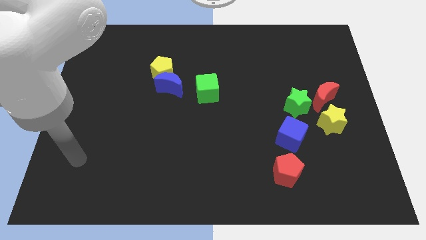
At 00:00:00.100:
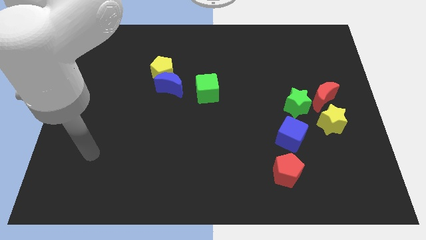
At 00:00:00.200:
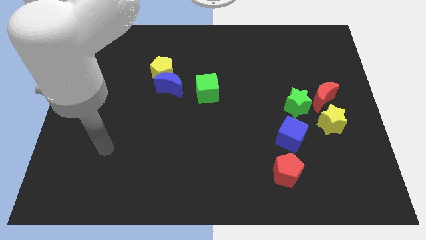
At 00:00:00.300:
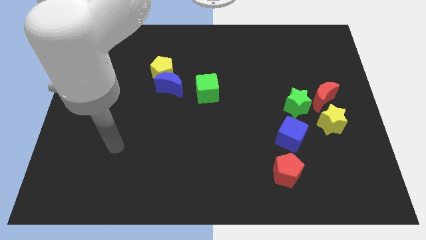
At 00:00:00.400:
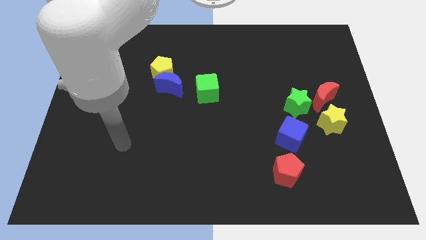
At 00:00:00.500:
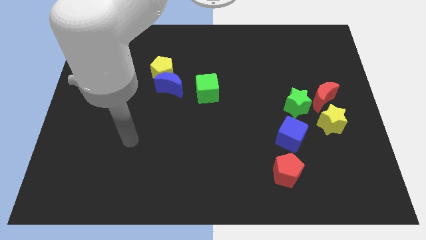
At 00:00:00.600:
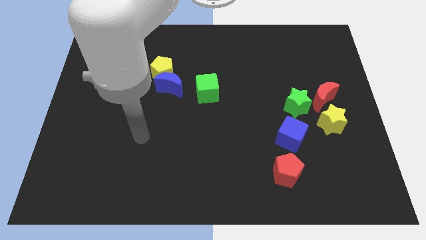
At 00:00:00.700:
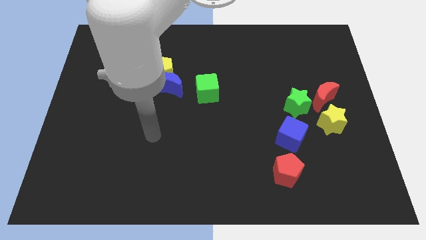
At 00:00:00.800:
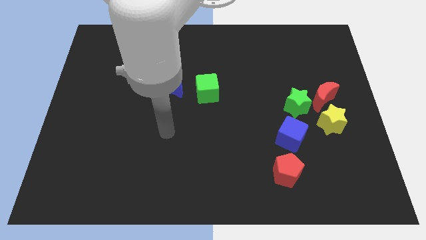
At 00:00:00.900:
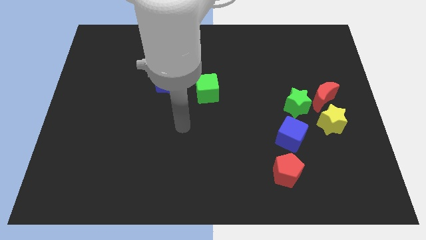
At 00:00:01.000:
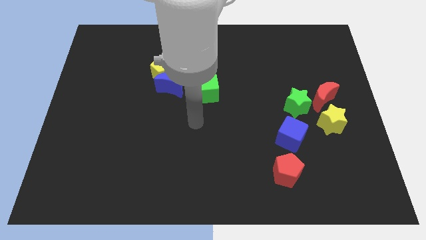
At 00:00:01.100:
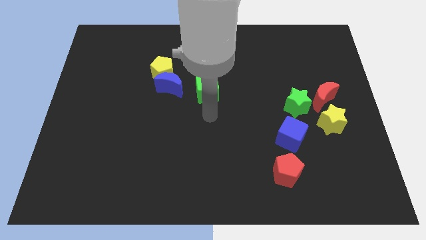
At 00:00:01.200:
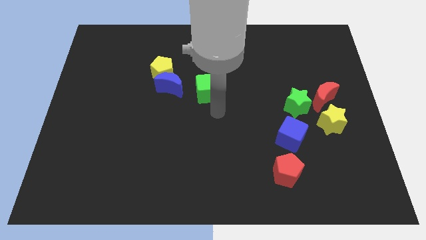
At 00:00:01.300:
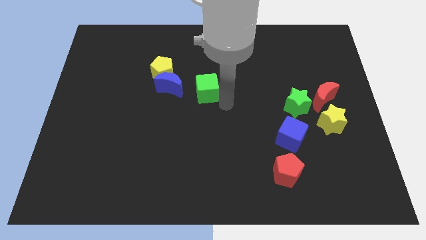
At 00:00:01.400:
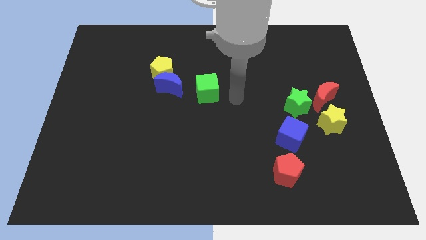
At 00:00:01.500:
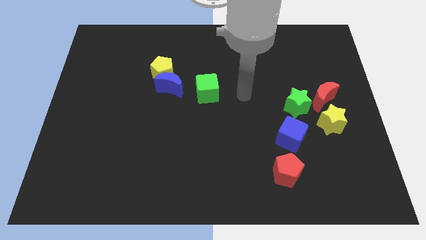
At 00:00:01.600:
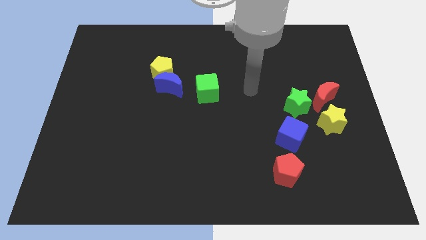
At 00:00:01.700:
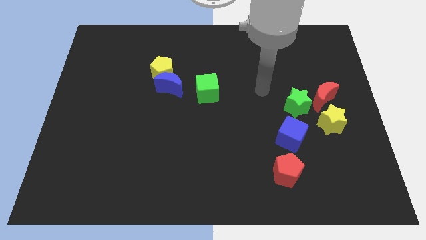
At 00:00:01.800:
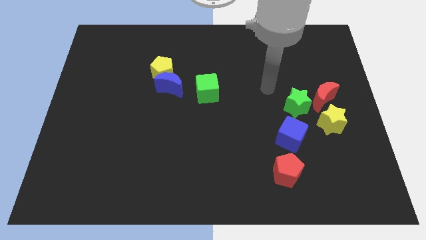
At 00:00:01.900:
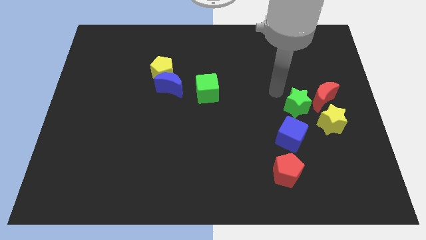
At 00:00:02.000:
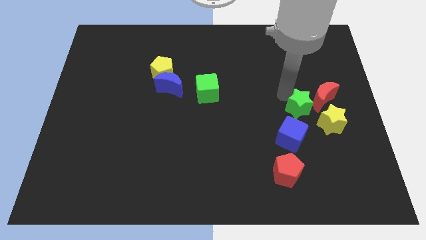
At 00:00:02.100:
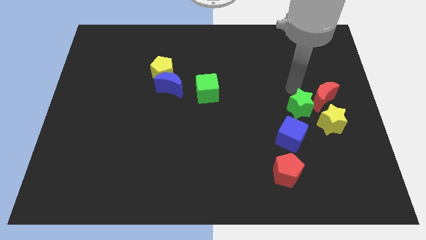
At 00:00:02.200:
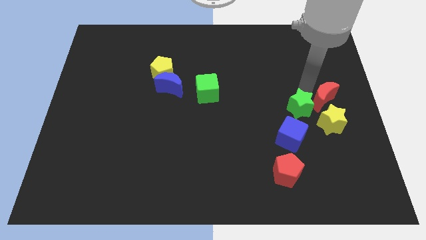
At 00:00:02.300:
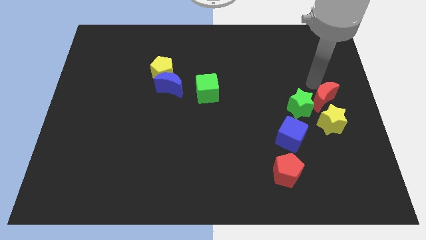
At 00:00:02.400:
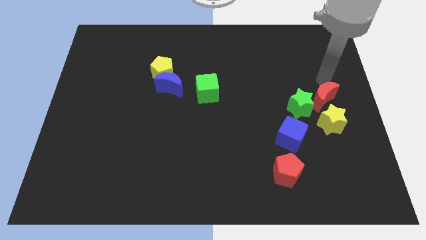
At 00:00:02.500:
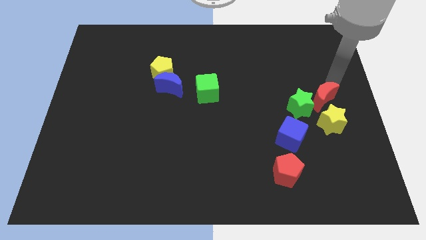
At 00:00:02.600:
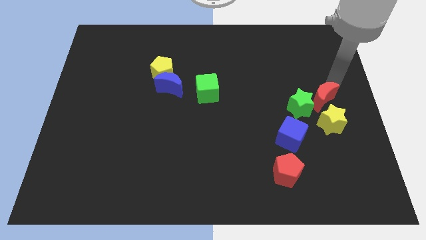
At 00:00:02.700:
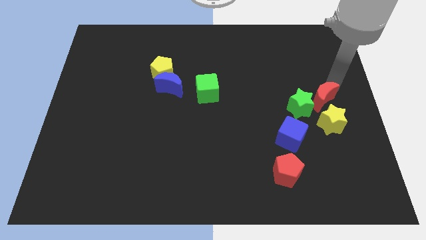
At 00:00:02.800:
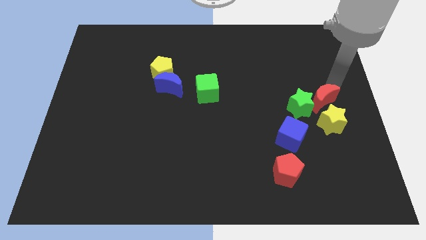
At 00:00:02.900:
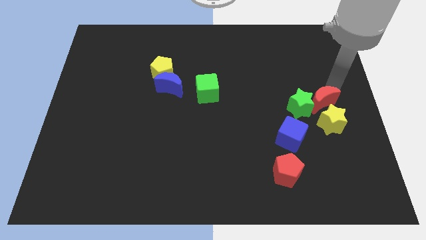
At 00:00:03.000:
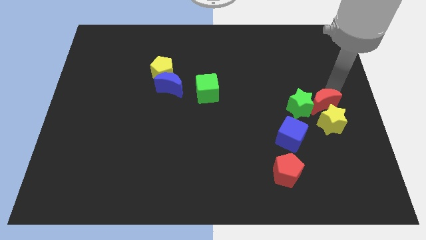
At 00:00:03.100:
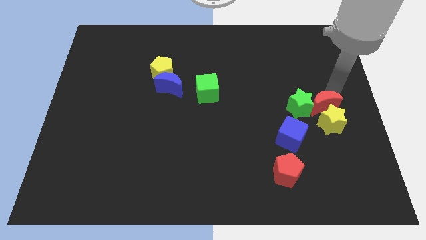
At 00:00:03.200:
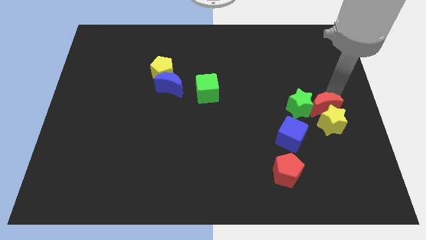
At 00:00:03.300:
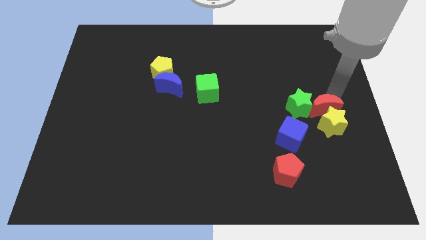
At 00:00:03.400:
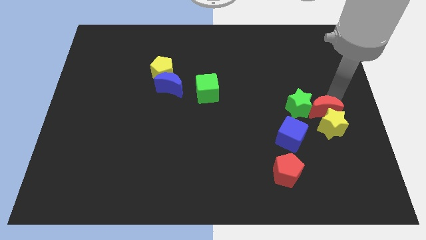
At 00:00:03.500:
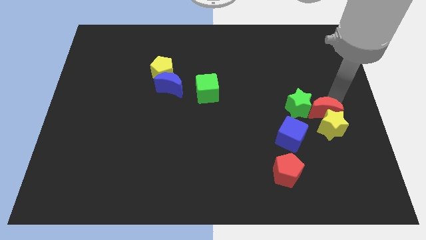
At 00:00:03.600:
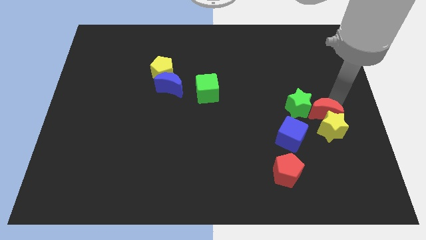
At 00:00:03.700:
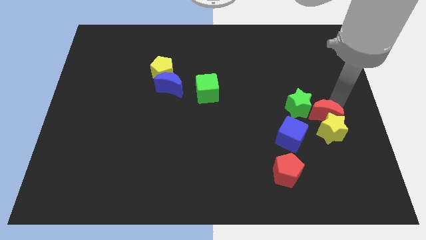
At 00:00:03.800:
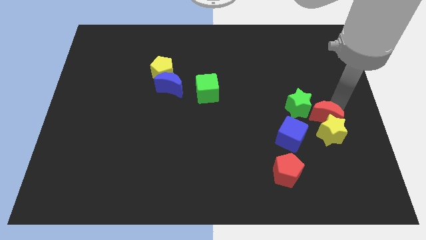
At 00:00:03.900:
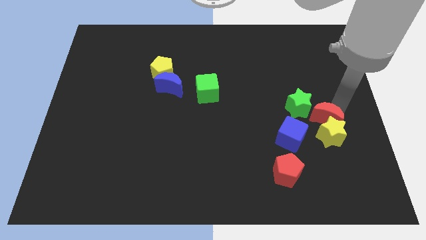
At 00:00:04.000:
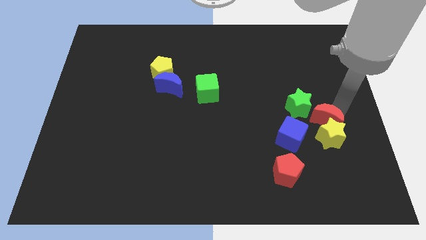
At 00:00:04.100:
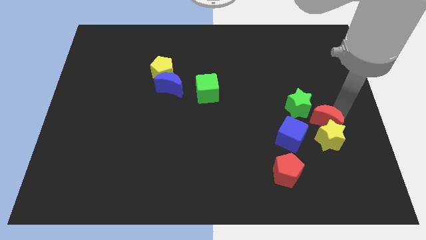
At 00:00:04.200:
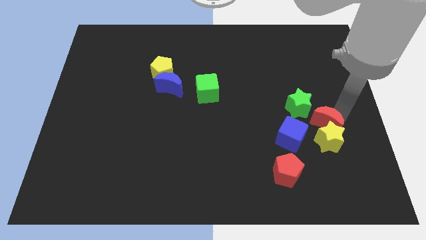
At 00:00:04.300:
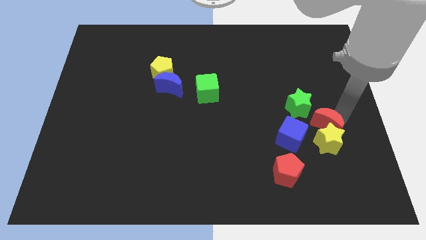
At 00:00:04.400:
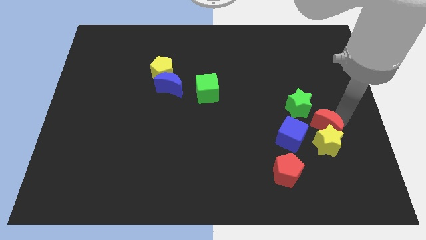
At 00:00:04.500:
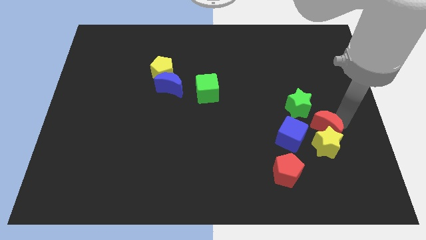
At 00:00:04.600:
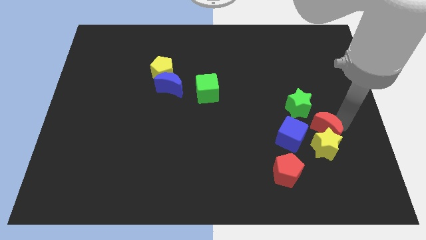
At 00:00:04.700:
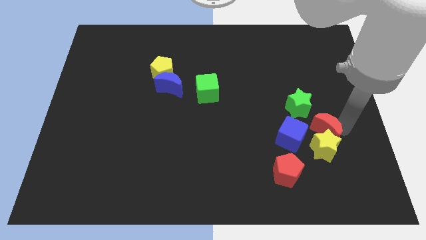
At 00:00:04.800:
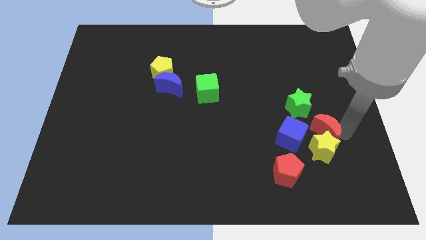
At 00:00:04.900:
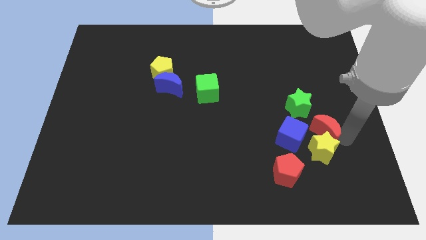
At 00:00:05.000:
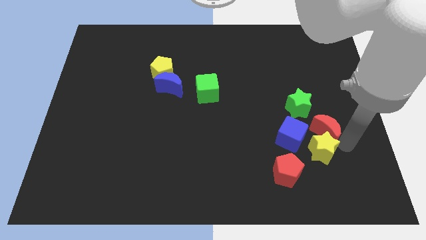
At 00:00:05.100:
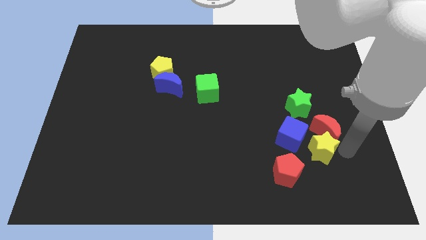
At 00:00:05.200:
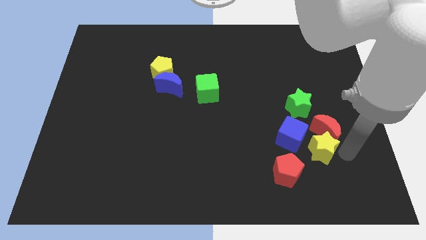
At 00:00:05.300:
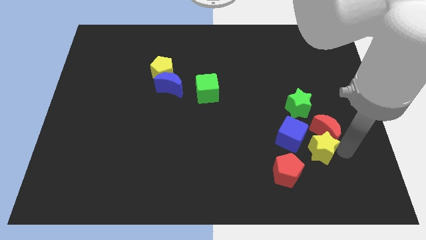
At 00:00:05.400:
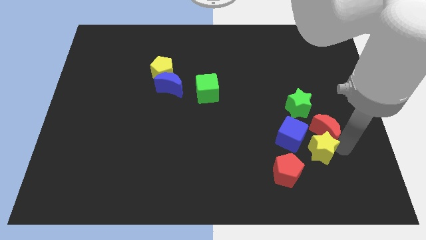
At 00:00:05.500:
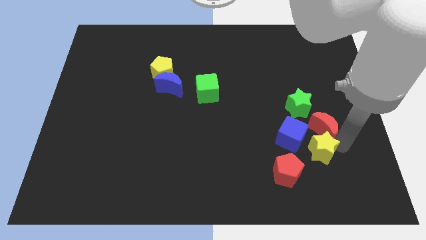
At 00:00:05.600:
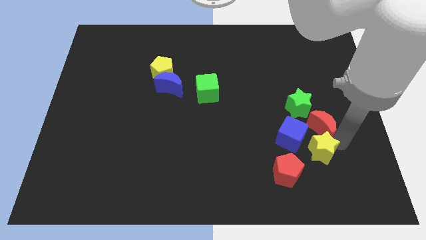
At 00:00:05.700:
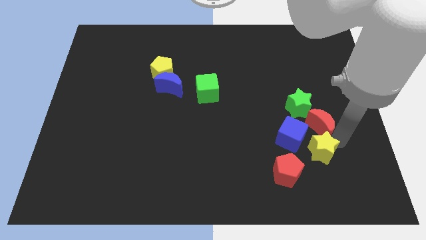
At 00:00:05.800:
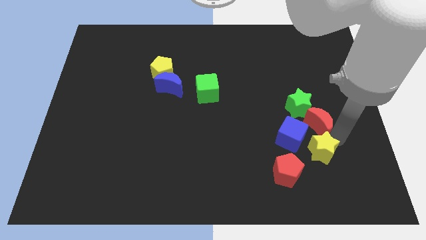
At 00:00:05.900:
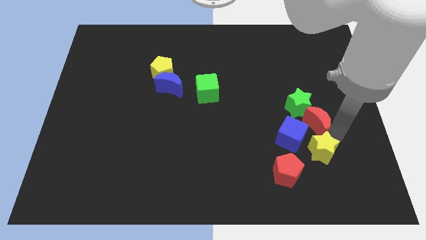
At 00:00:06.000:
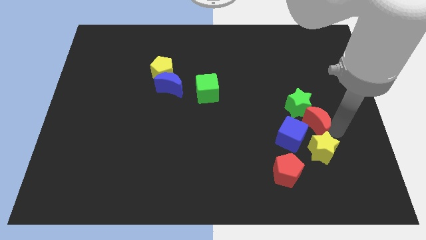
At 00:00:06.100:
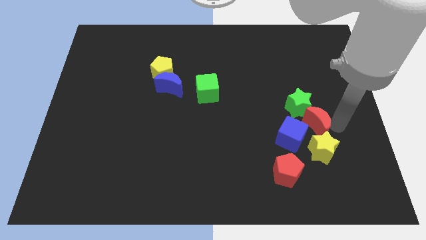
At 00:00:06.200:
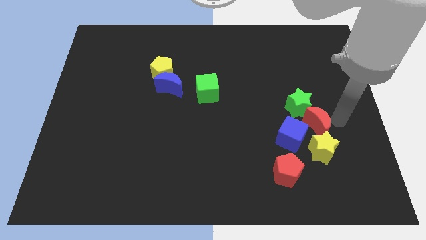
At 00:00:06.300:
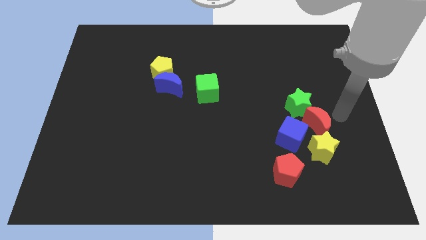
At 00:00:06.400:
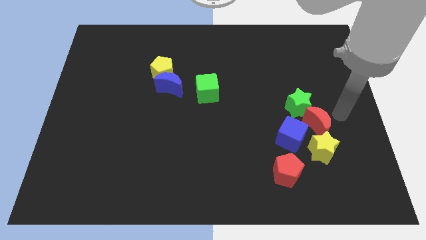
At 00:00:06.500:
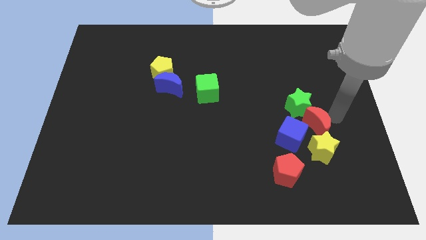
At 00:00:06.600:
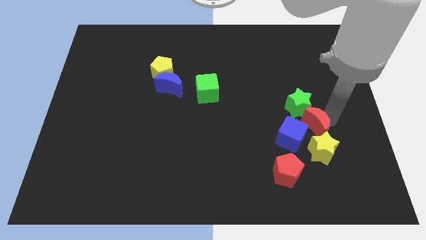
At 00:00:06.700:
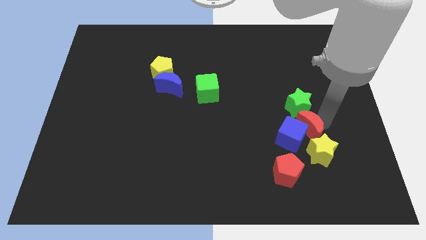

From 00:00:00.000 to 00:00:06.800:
push the red moon to the blue cube

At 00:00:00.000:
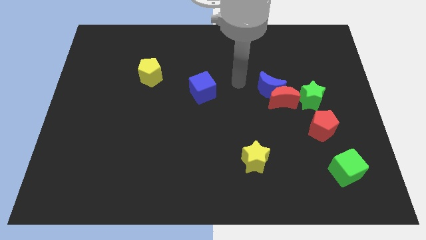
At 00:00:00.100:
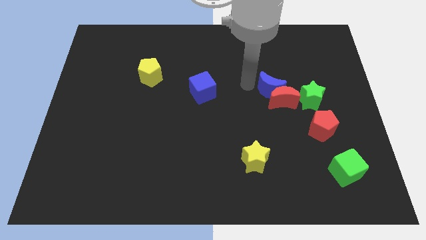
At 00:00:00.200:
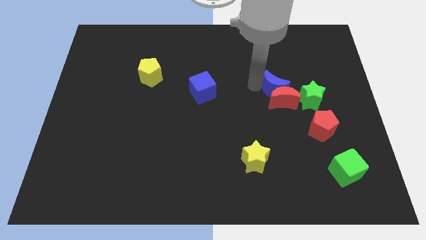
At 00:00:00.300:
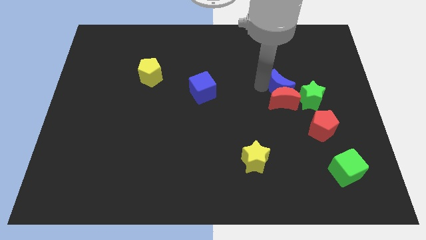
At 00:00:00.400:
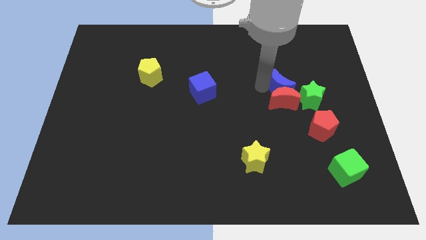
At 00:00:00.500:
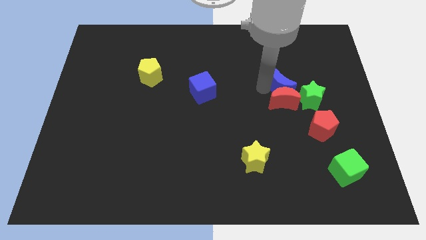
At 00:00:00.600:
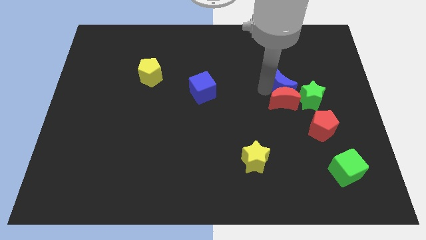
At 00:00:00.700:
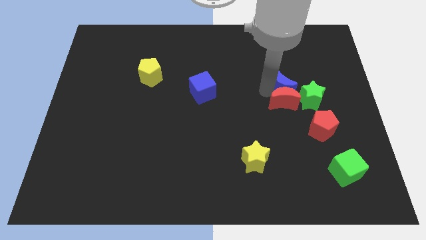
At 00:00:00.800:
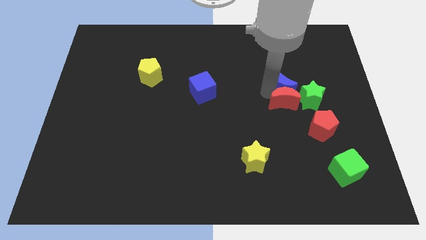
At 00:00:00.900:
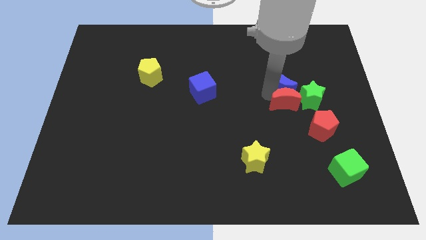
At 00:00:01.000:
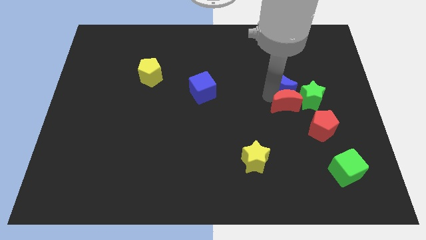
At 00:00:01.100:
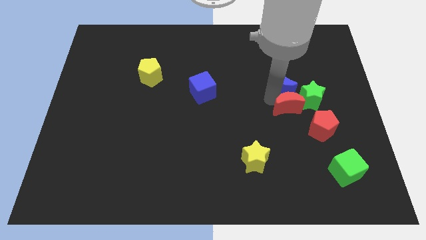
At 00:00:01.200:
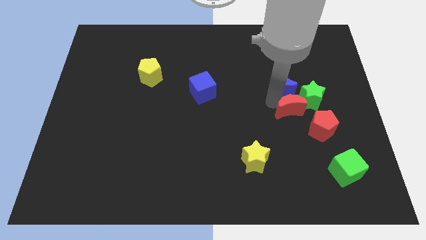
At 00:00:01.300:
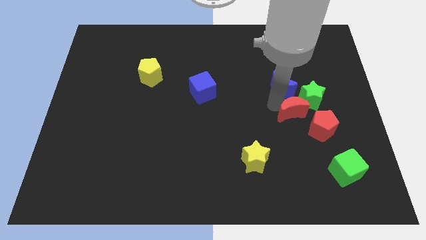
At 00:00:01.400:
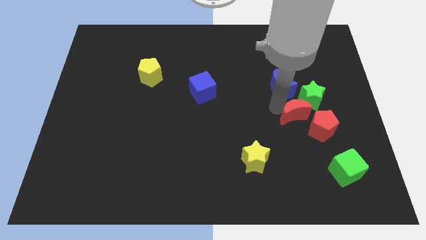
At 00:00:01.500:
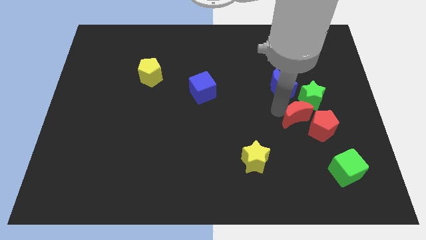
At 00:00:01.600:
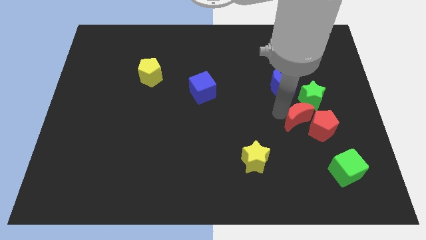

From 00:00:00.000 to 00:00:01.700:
move the red moon to the red pentagon
